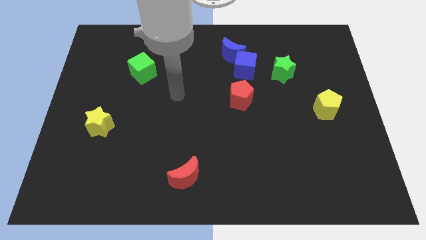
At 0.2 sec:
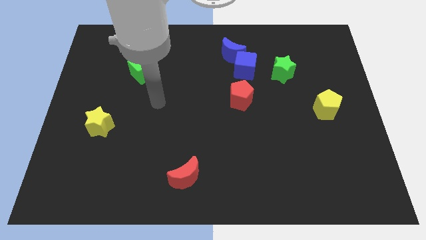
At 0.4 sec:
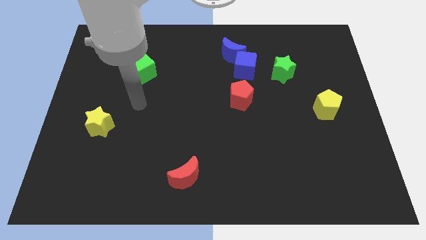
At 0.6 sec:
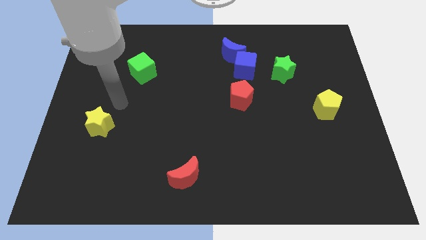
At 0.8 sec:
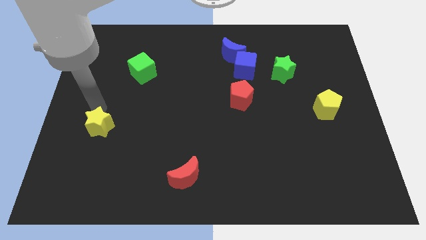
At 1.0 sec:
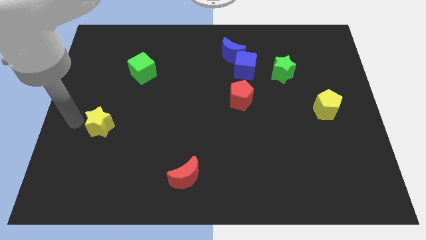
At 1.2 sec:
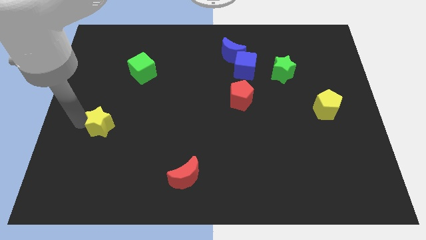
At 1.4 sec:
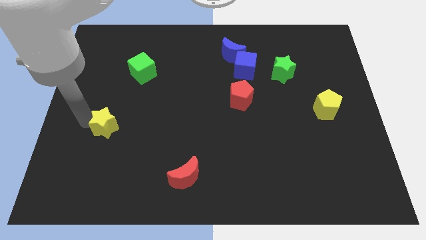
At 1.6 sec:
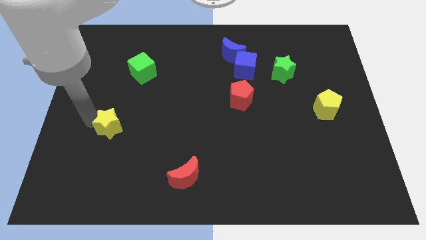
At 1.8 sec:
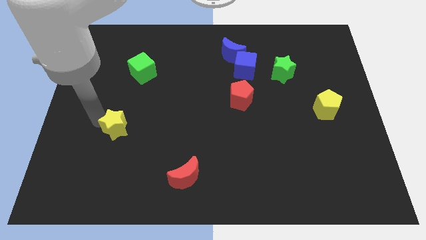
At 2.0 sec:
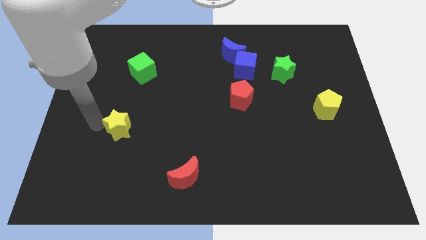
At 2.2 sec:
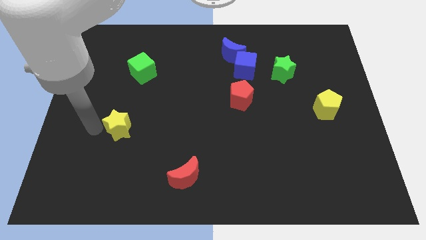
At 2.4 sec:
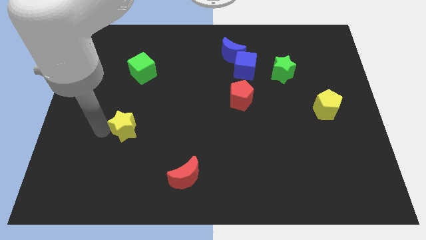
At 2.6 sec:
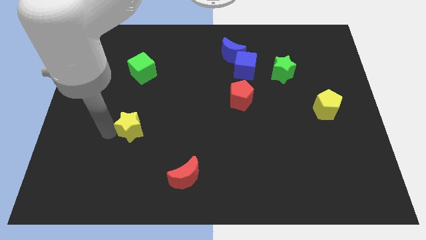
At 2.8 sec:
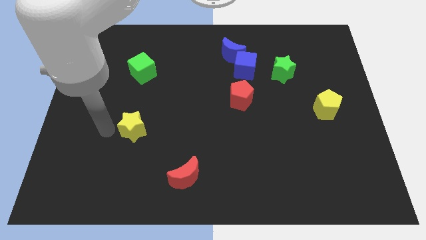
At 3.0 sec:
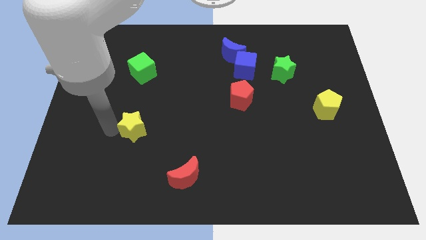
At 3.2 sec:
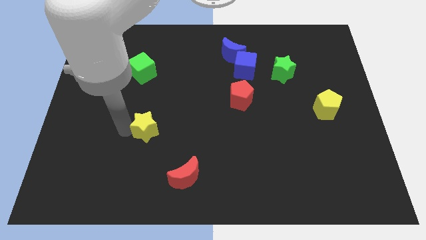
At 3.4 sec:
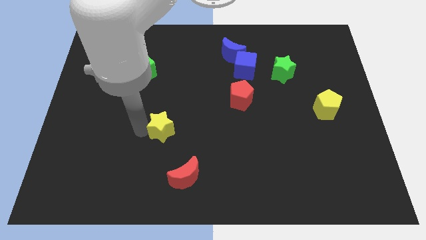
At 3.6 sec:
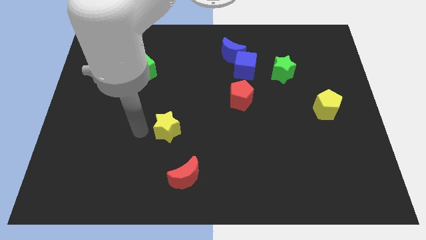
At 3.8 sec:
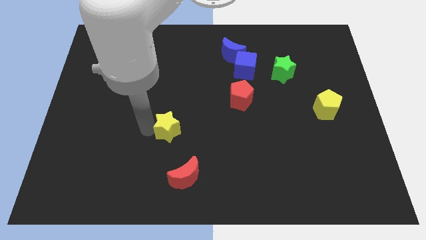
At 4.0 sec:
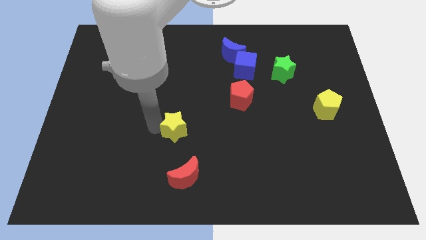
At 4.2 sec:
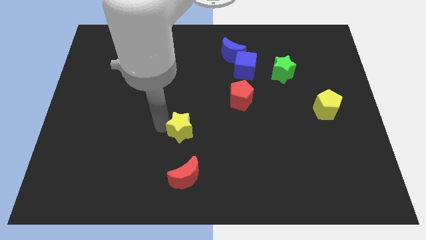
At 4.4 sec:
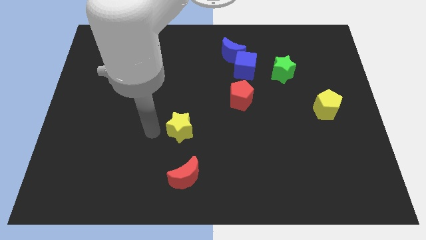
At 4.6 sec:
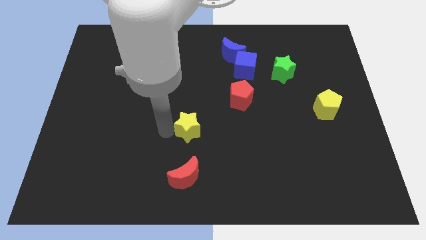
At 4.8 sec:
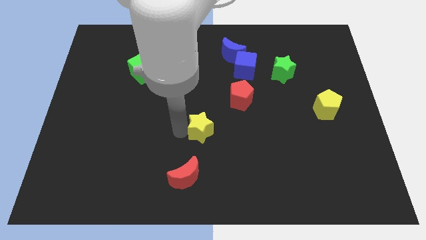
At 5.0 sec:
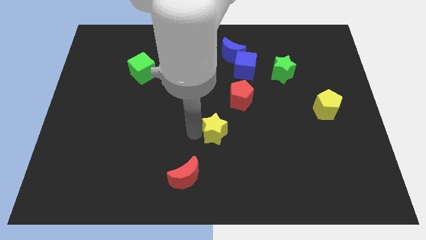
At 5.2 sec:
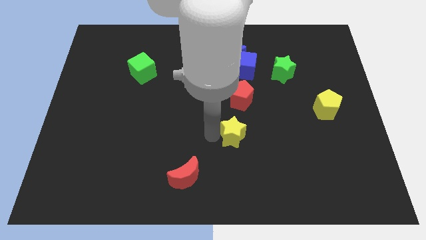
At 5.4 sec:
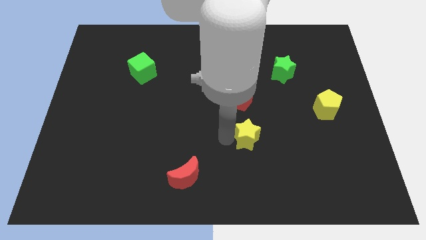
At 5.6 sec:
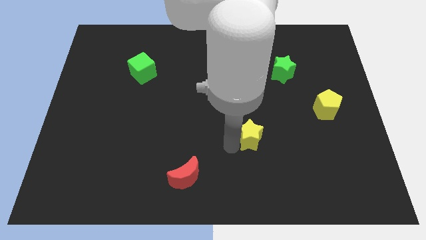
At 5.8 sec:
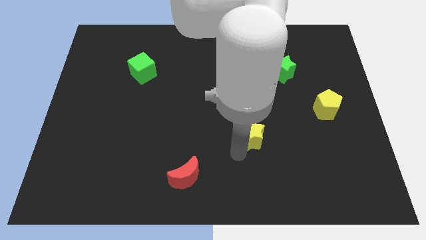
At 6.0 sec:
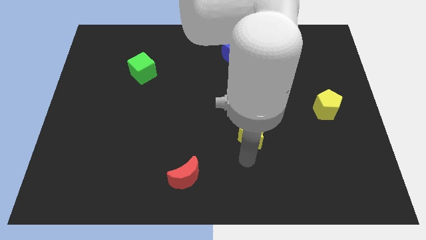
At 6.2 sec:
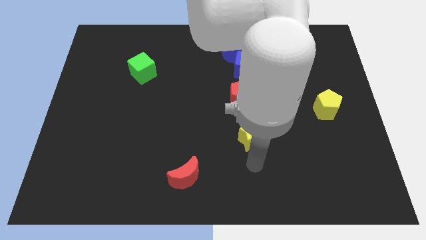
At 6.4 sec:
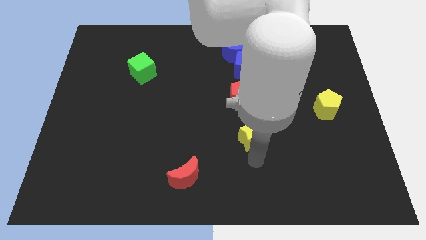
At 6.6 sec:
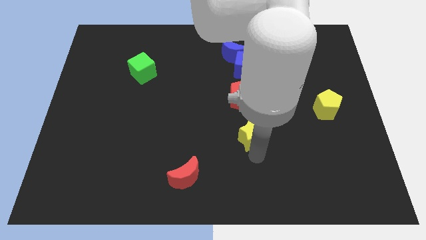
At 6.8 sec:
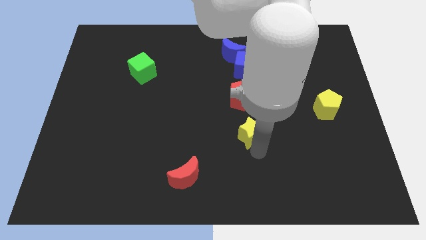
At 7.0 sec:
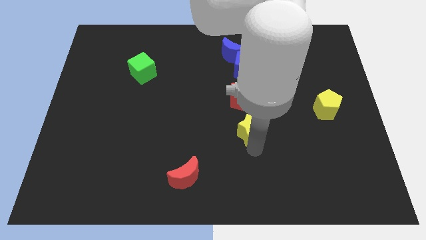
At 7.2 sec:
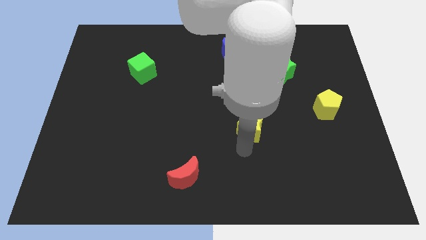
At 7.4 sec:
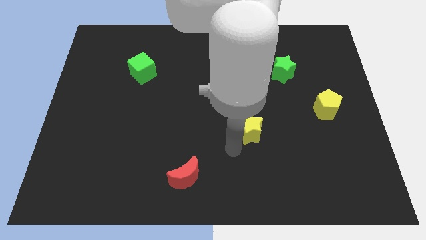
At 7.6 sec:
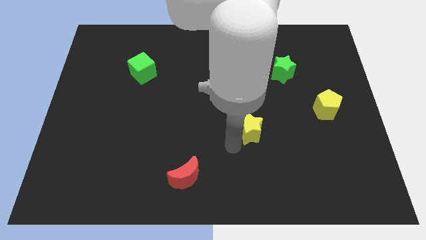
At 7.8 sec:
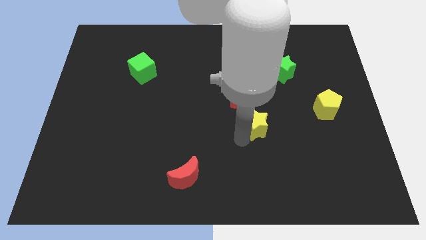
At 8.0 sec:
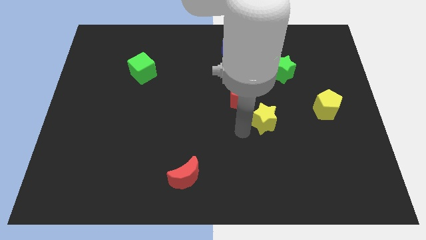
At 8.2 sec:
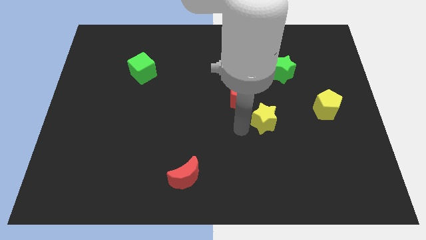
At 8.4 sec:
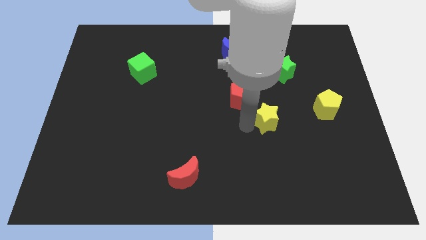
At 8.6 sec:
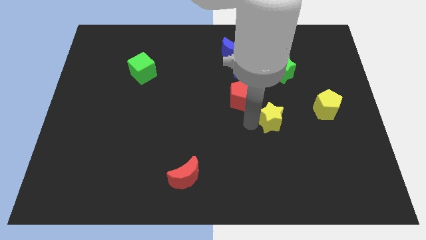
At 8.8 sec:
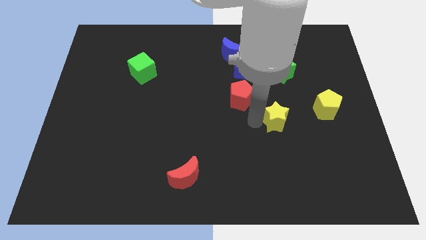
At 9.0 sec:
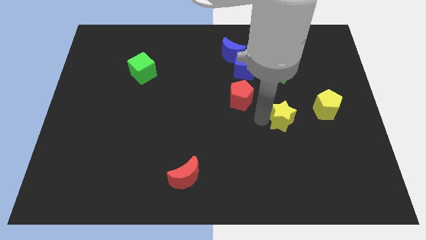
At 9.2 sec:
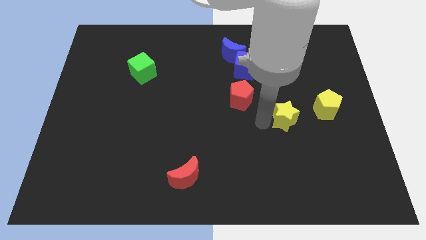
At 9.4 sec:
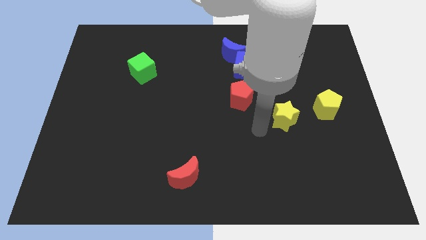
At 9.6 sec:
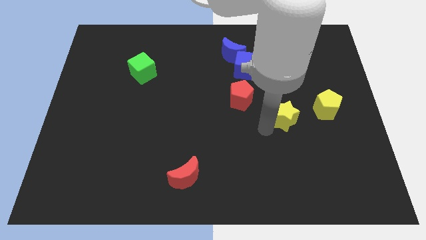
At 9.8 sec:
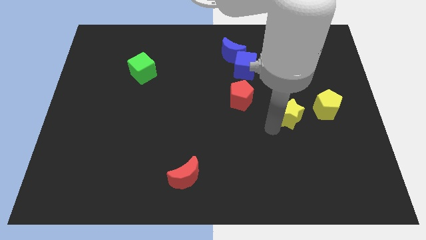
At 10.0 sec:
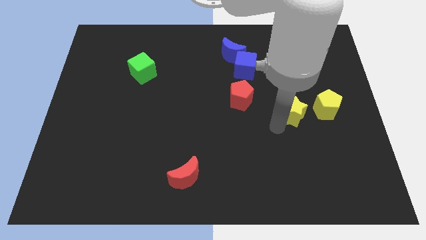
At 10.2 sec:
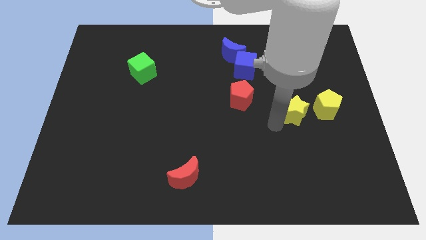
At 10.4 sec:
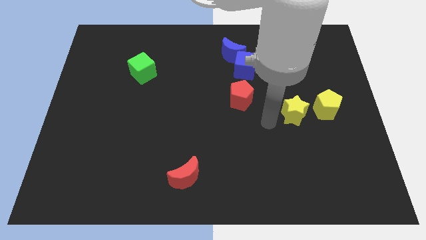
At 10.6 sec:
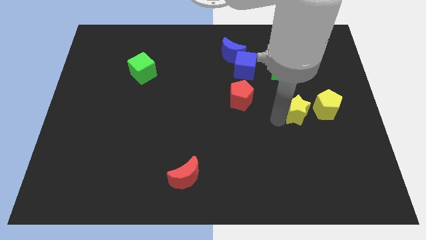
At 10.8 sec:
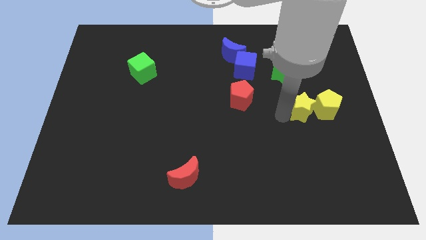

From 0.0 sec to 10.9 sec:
push the yellow star next to the yellow pentagon

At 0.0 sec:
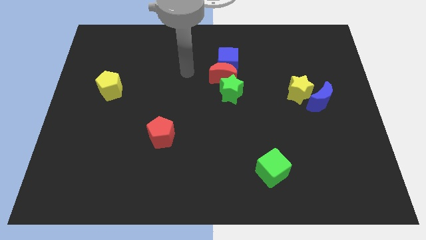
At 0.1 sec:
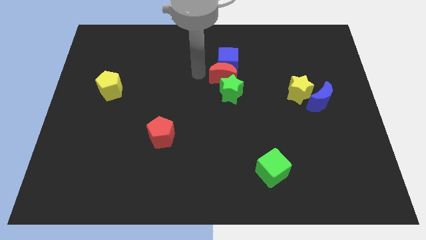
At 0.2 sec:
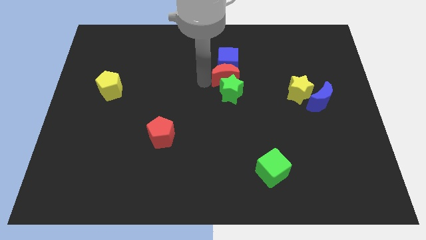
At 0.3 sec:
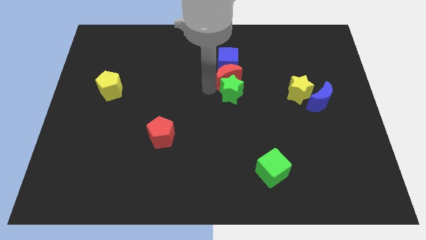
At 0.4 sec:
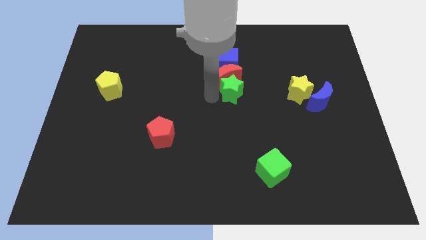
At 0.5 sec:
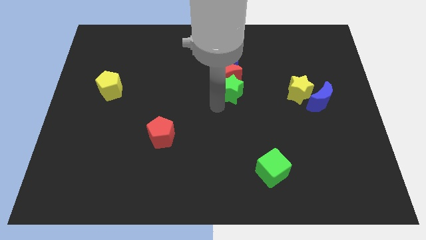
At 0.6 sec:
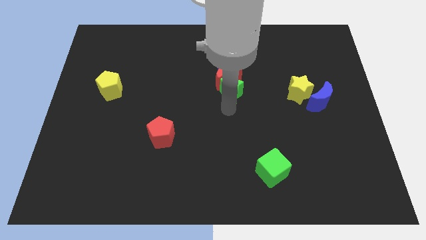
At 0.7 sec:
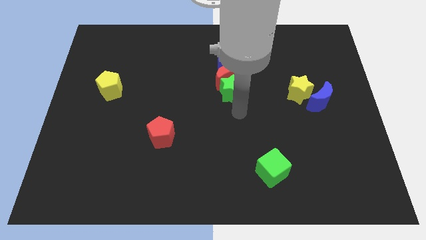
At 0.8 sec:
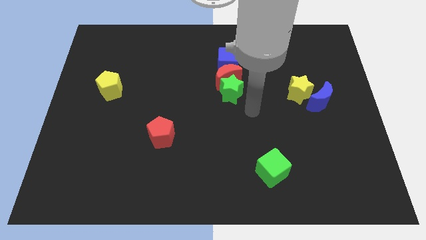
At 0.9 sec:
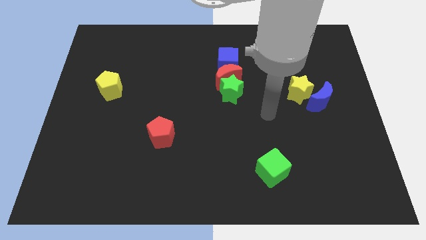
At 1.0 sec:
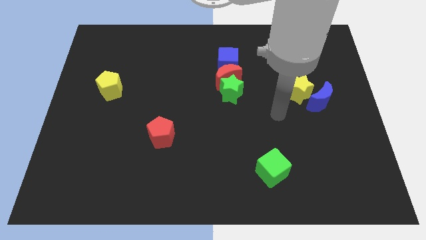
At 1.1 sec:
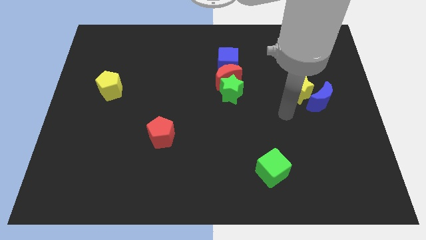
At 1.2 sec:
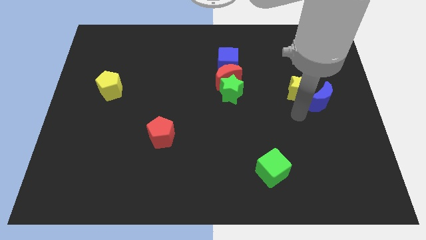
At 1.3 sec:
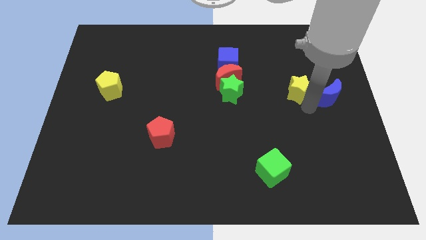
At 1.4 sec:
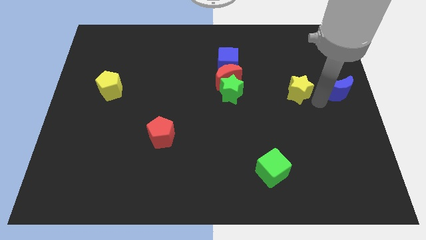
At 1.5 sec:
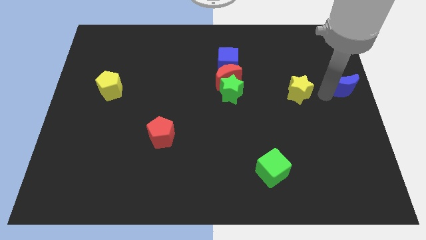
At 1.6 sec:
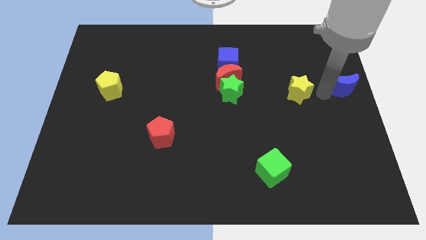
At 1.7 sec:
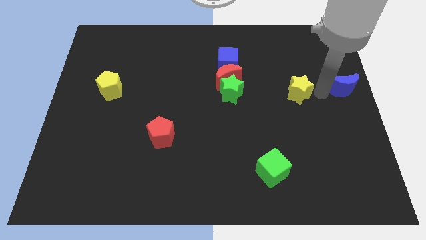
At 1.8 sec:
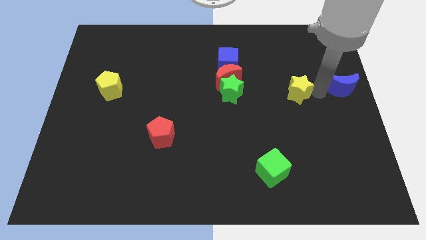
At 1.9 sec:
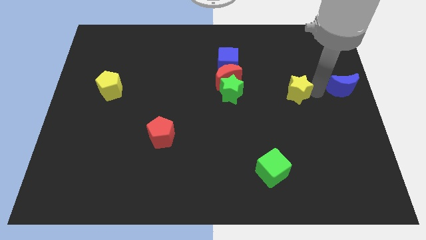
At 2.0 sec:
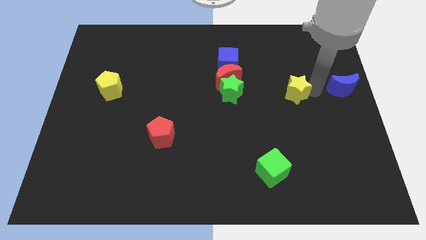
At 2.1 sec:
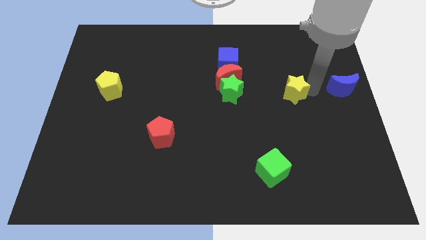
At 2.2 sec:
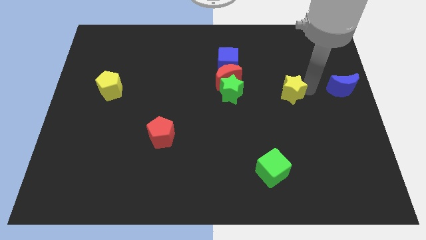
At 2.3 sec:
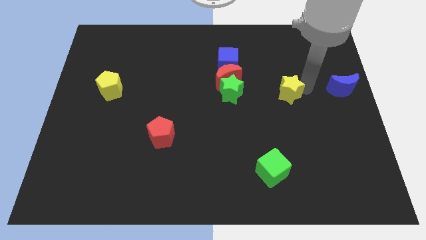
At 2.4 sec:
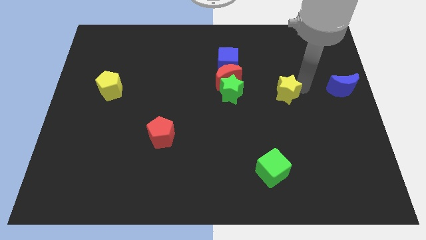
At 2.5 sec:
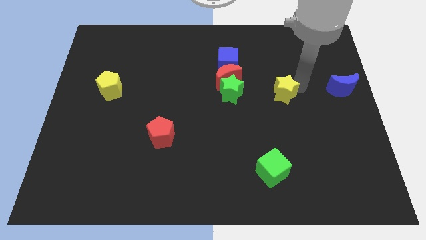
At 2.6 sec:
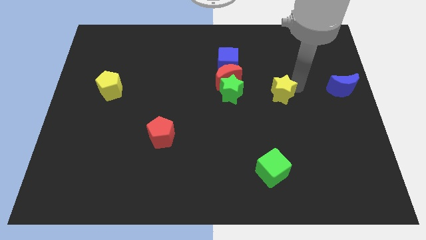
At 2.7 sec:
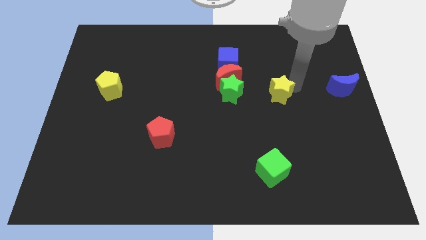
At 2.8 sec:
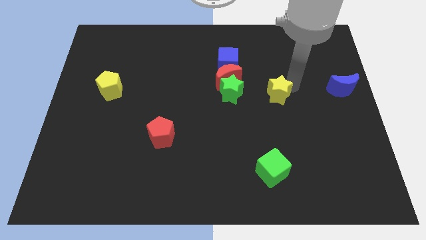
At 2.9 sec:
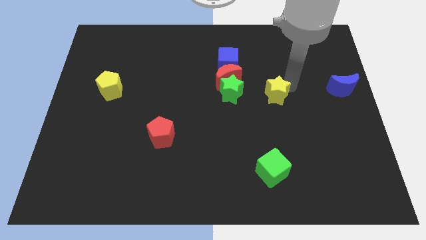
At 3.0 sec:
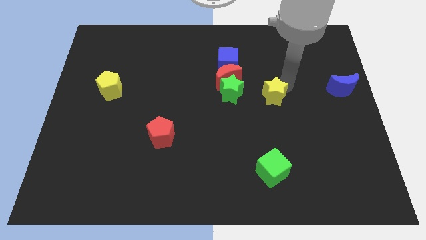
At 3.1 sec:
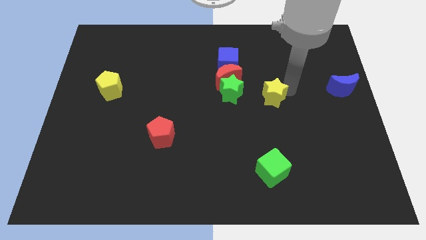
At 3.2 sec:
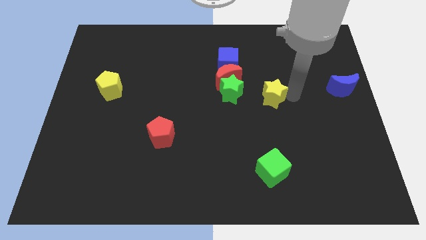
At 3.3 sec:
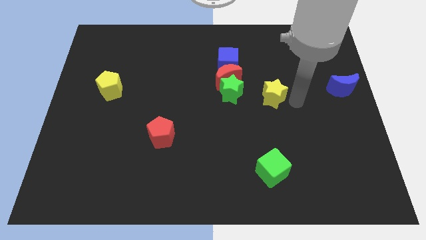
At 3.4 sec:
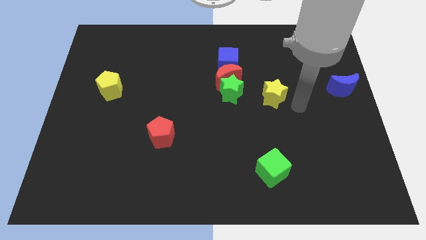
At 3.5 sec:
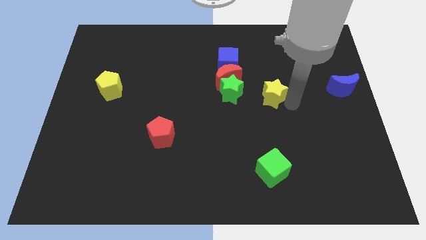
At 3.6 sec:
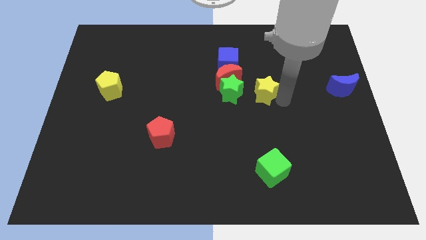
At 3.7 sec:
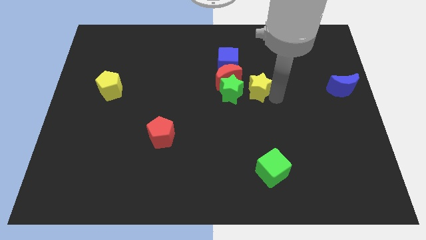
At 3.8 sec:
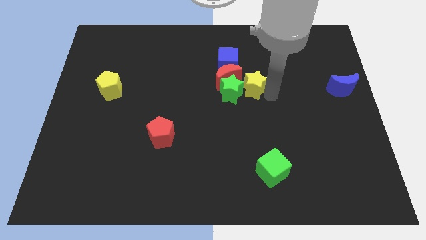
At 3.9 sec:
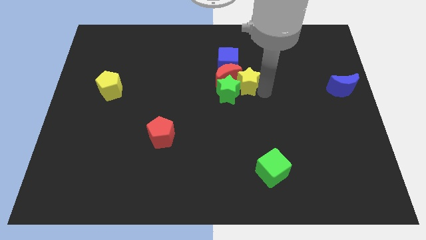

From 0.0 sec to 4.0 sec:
move the yellow star next to the red moon
